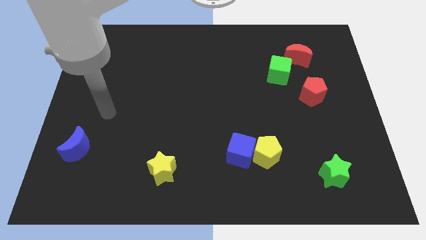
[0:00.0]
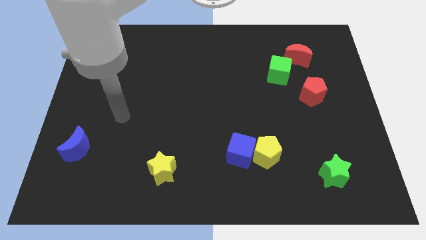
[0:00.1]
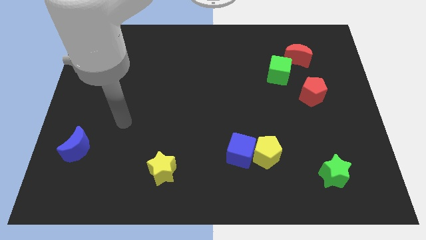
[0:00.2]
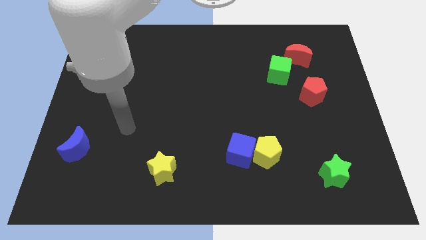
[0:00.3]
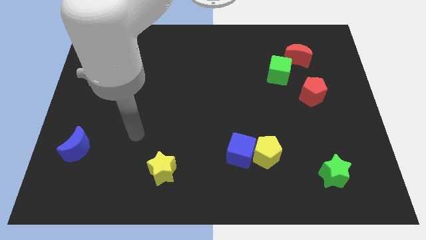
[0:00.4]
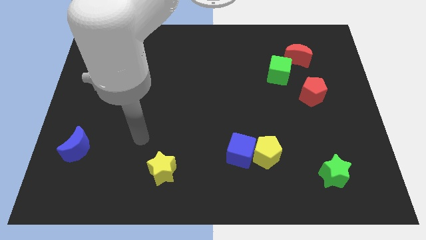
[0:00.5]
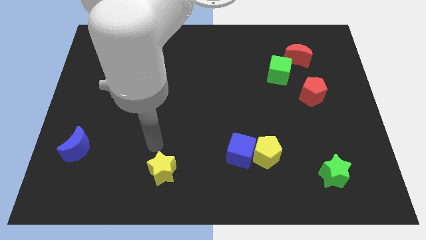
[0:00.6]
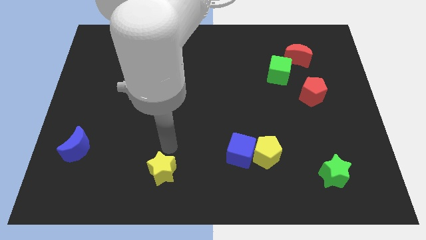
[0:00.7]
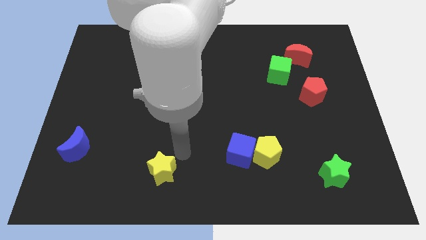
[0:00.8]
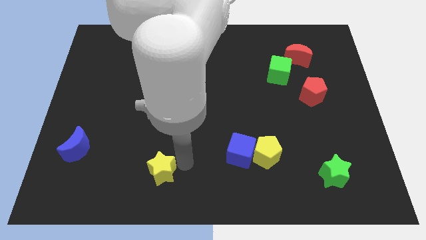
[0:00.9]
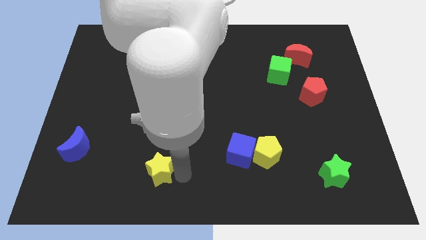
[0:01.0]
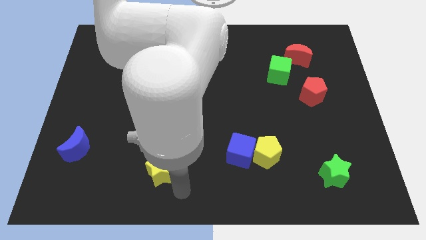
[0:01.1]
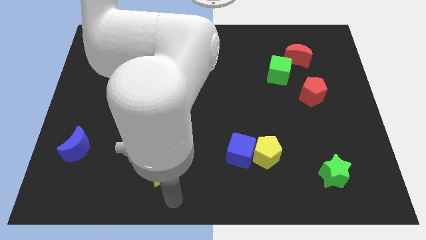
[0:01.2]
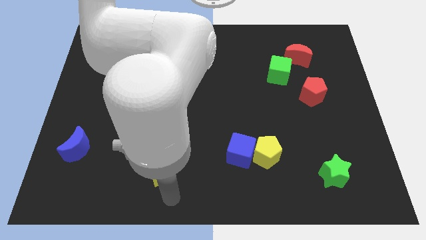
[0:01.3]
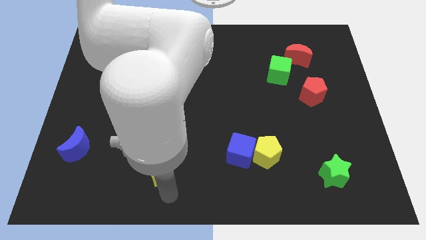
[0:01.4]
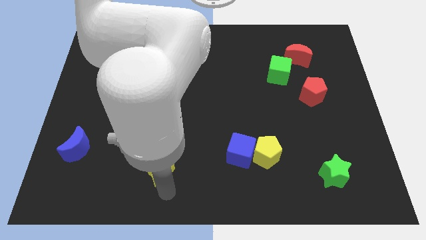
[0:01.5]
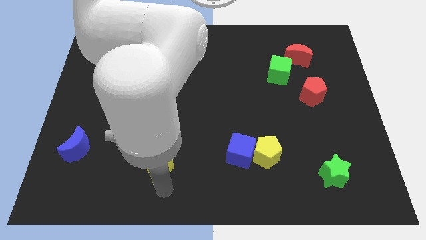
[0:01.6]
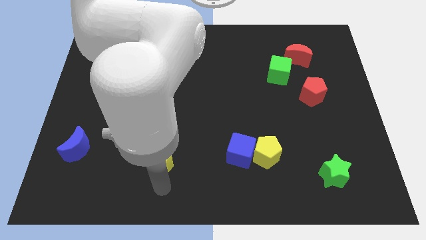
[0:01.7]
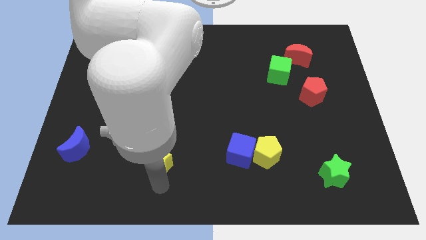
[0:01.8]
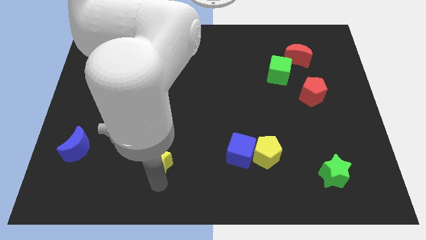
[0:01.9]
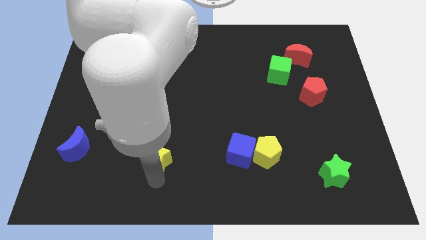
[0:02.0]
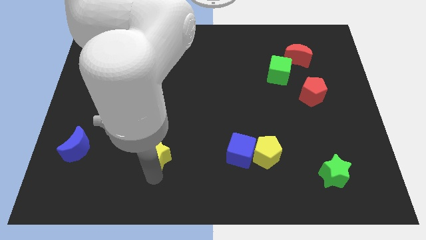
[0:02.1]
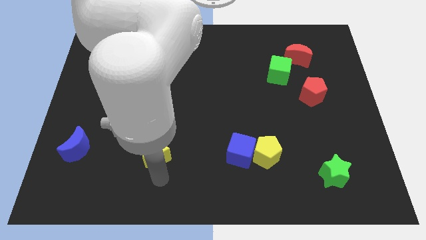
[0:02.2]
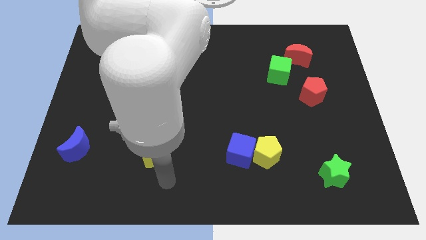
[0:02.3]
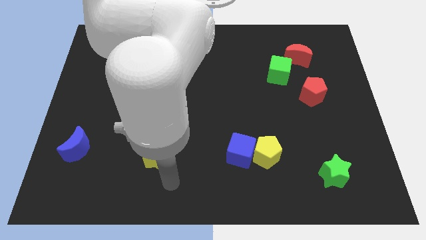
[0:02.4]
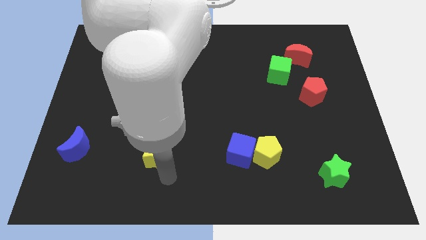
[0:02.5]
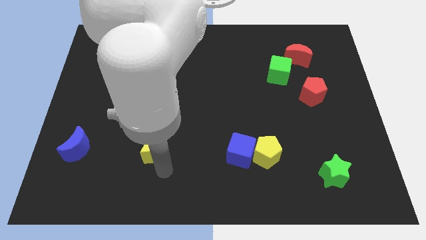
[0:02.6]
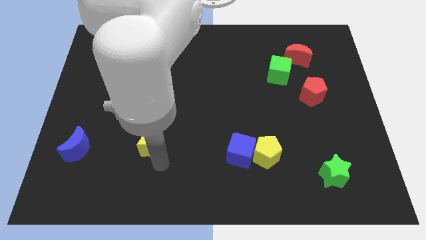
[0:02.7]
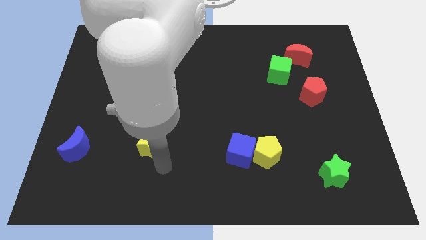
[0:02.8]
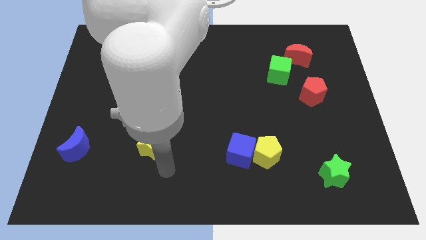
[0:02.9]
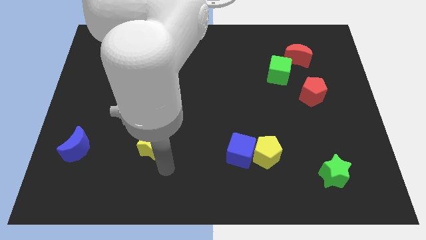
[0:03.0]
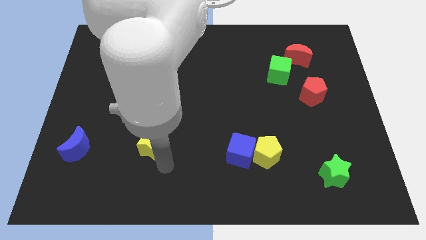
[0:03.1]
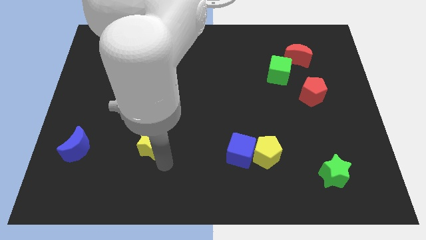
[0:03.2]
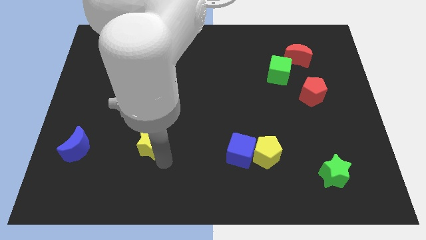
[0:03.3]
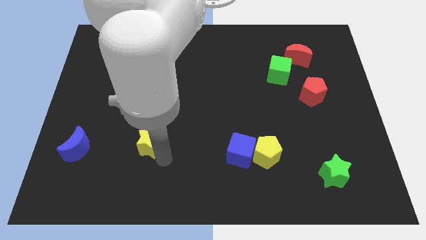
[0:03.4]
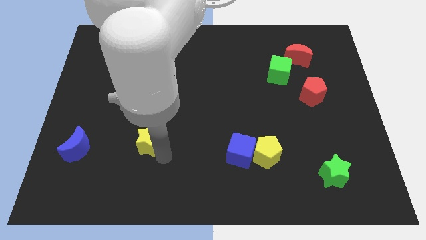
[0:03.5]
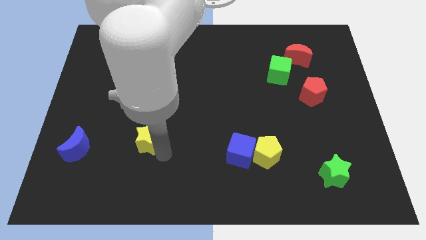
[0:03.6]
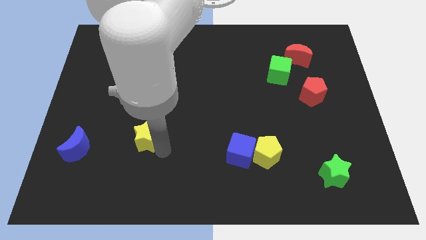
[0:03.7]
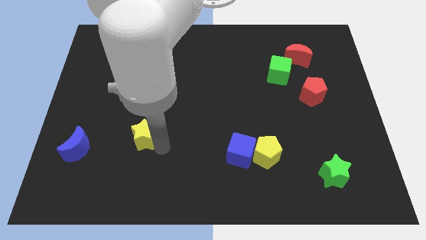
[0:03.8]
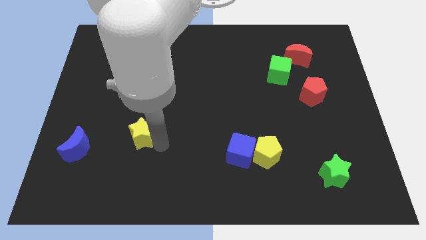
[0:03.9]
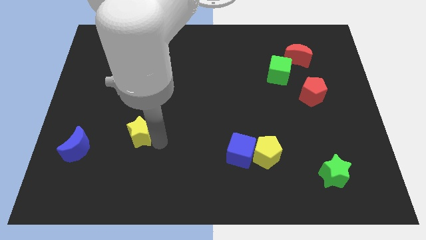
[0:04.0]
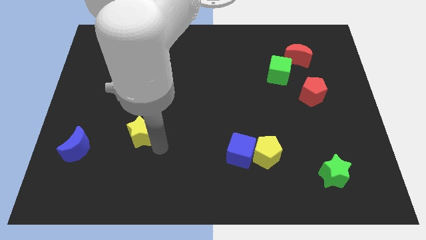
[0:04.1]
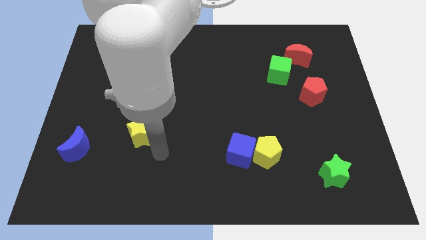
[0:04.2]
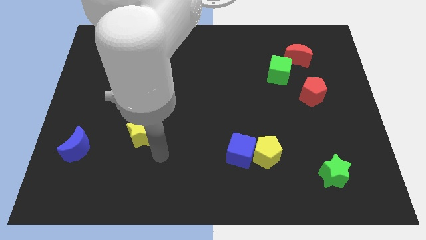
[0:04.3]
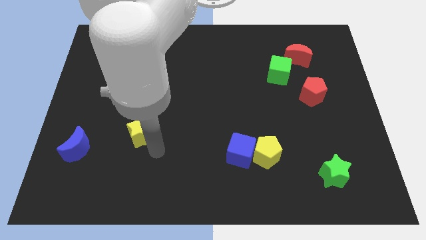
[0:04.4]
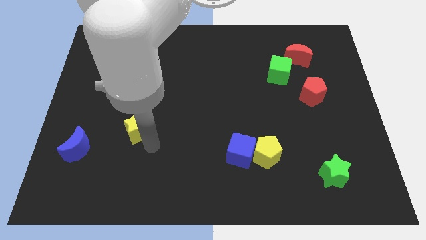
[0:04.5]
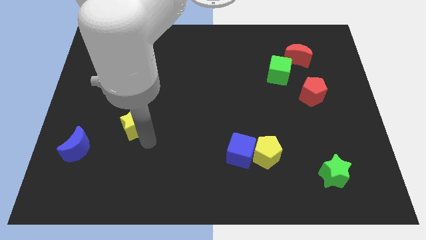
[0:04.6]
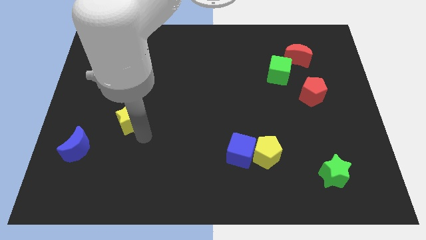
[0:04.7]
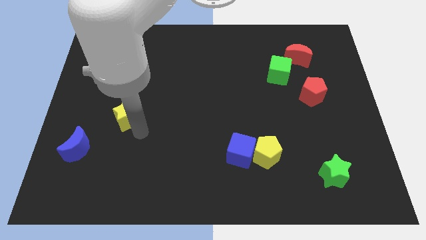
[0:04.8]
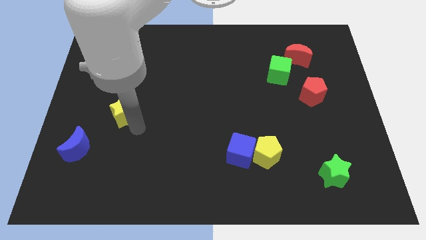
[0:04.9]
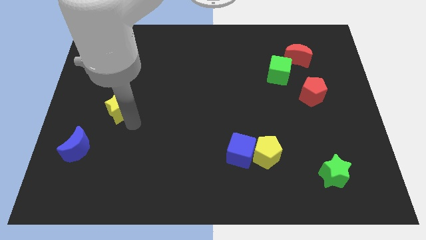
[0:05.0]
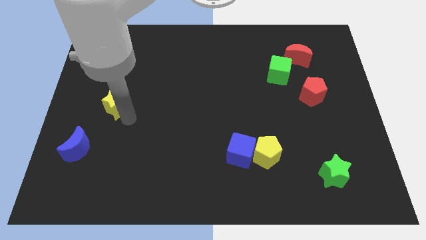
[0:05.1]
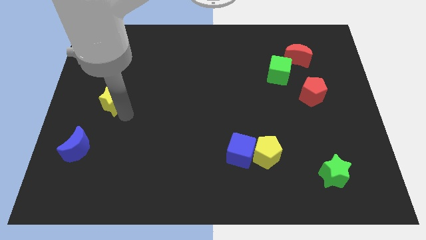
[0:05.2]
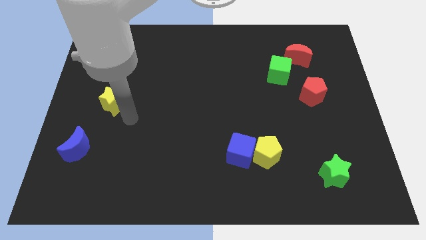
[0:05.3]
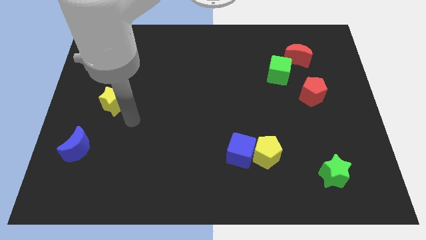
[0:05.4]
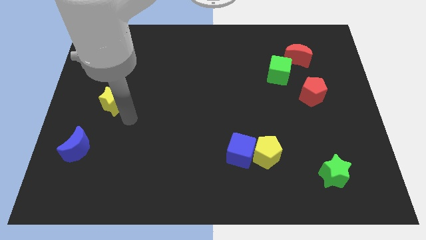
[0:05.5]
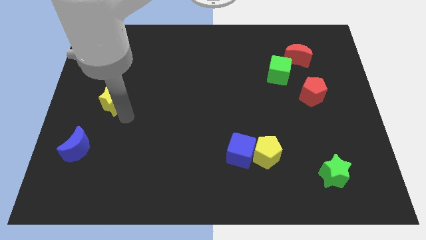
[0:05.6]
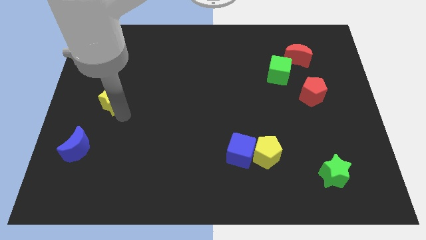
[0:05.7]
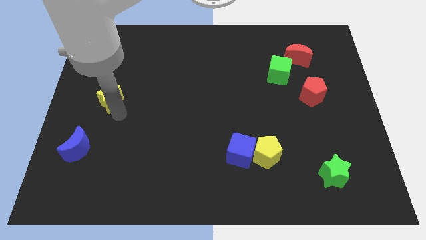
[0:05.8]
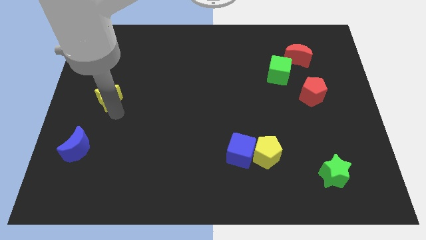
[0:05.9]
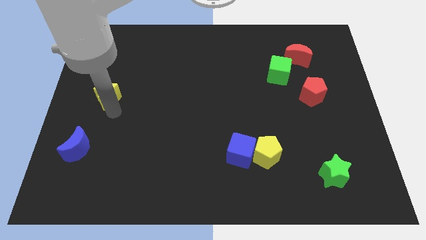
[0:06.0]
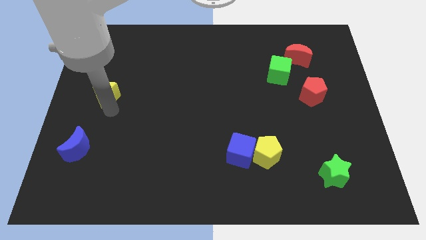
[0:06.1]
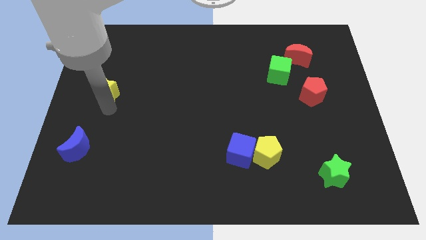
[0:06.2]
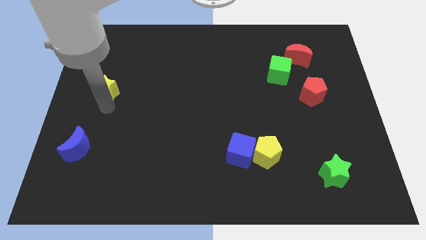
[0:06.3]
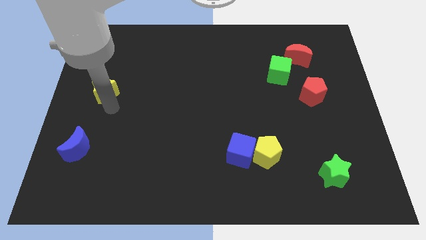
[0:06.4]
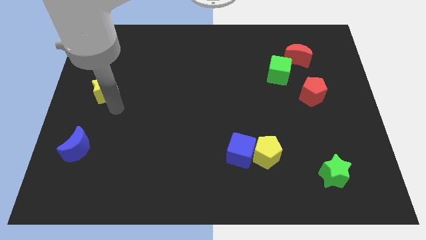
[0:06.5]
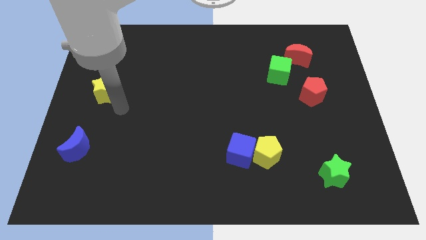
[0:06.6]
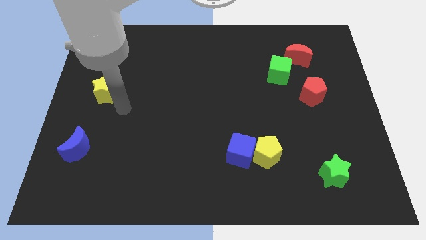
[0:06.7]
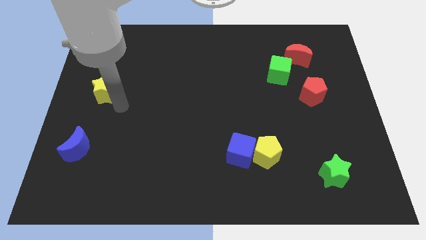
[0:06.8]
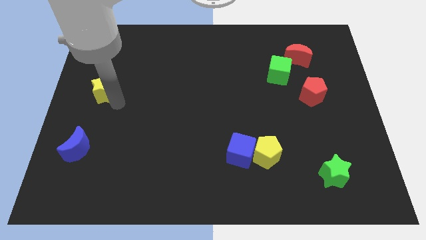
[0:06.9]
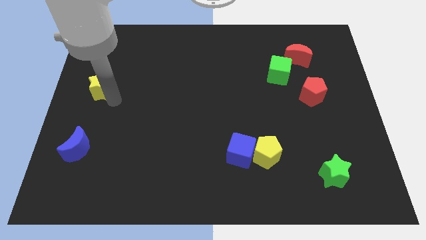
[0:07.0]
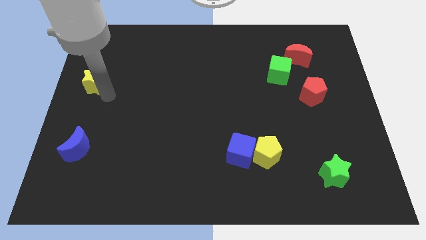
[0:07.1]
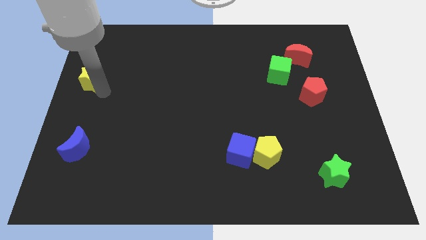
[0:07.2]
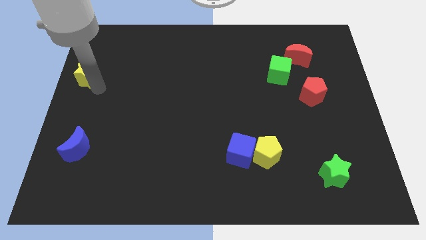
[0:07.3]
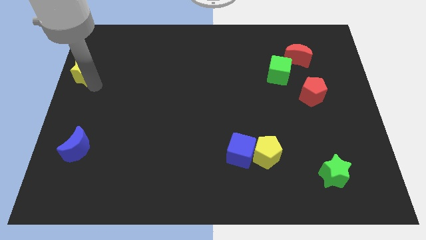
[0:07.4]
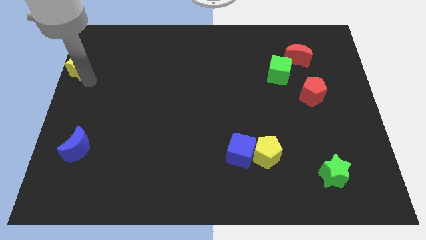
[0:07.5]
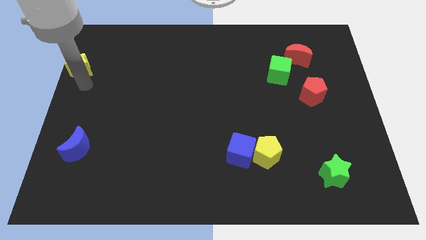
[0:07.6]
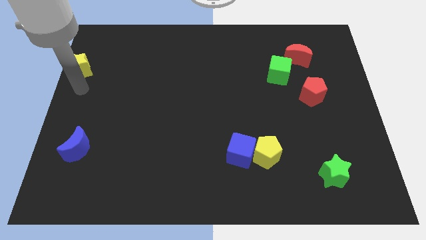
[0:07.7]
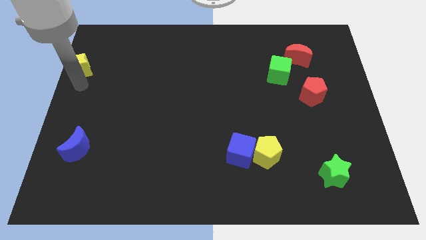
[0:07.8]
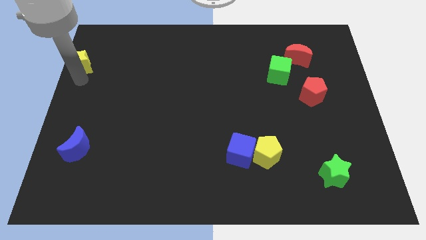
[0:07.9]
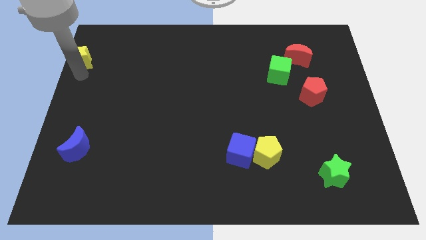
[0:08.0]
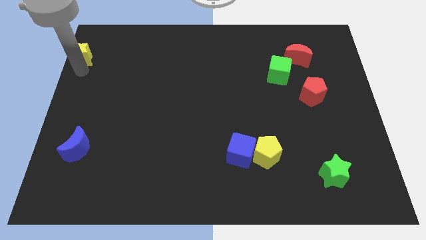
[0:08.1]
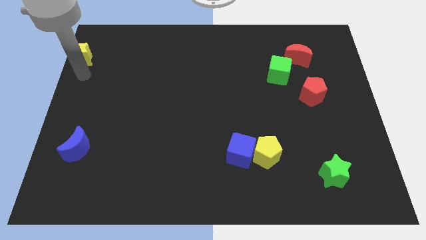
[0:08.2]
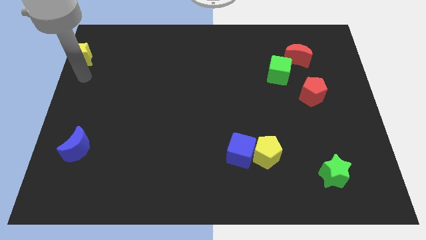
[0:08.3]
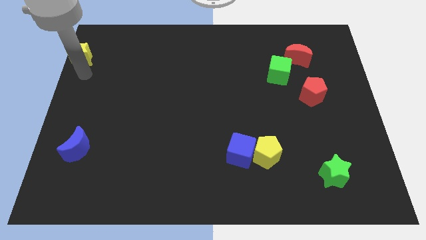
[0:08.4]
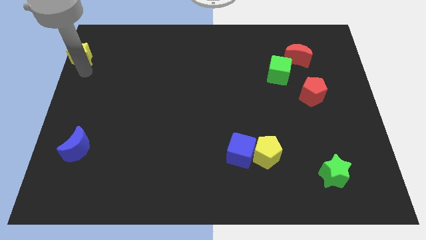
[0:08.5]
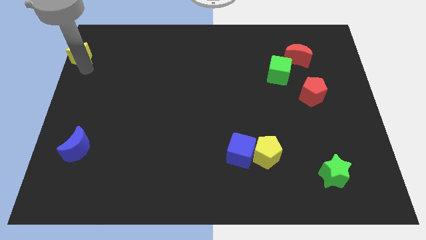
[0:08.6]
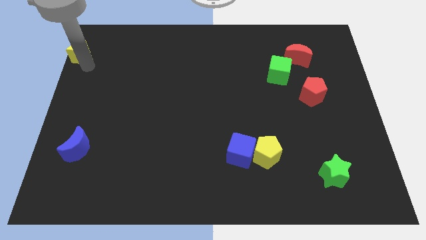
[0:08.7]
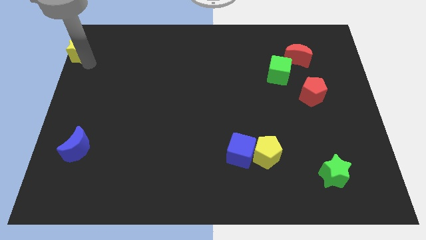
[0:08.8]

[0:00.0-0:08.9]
move the yellow star to the top left corner
